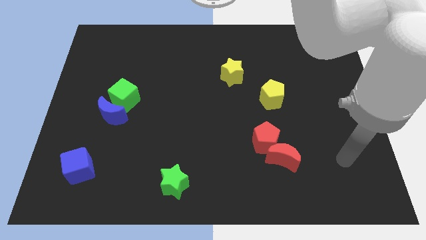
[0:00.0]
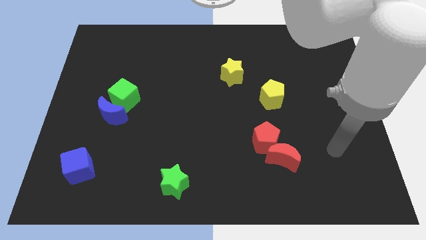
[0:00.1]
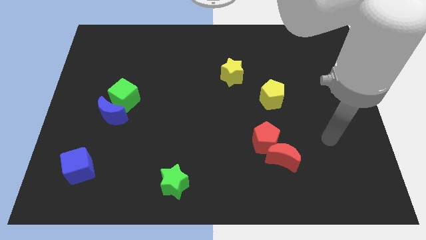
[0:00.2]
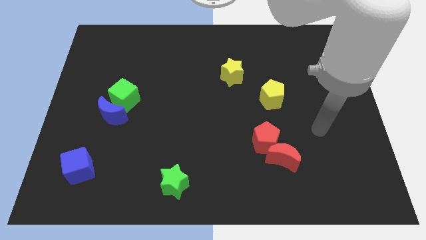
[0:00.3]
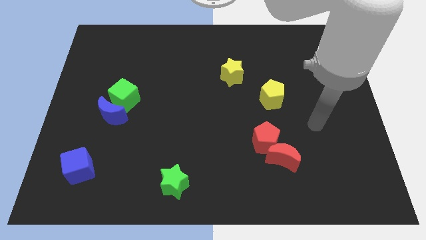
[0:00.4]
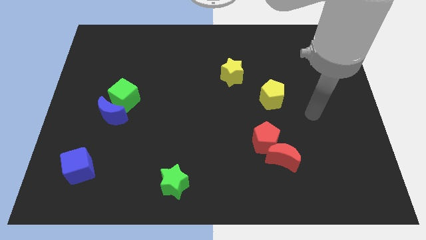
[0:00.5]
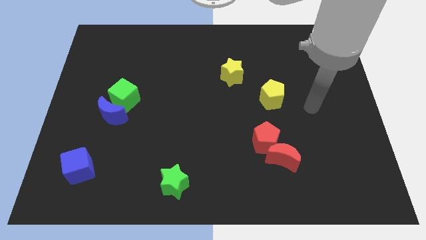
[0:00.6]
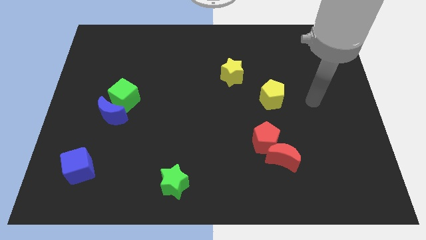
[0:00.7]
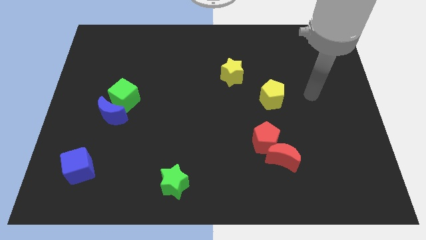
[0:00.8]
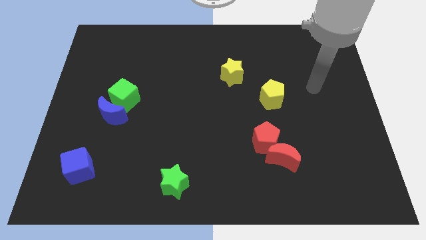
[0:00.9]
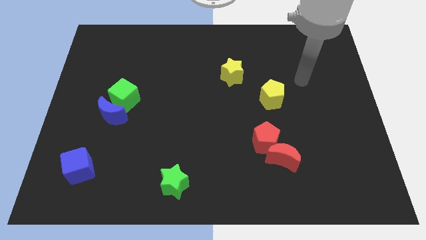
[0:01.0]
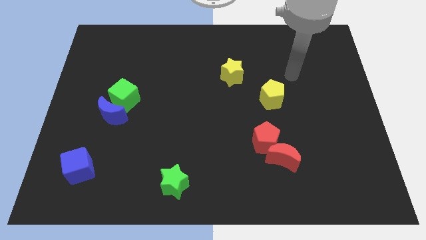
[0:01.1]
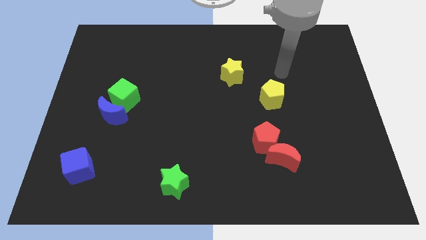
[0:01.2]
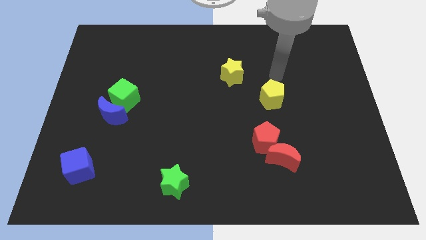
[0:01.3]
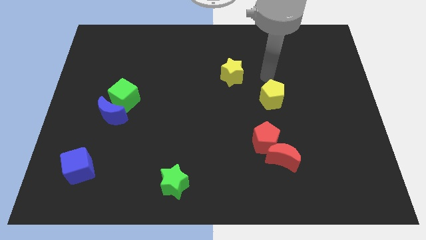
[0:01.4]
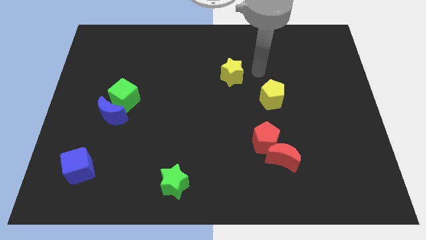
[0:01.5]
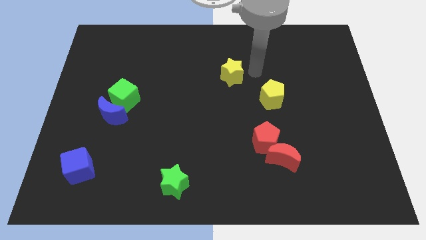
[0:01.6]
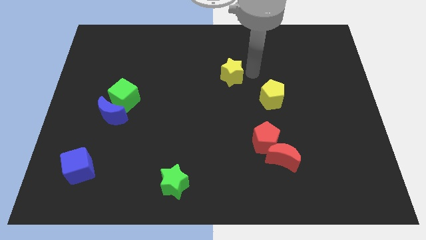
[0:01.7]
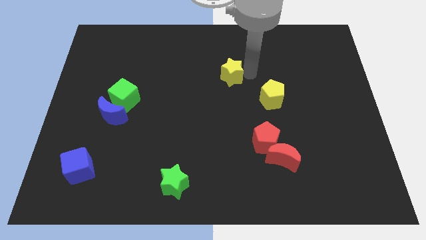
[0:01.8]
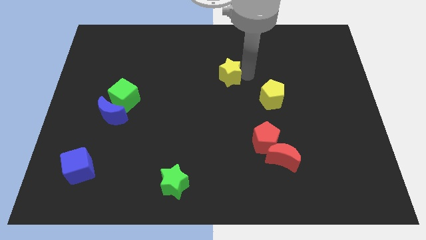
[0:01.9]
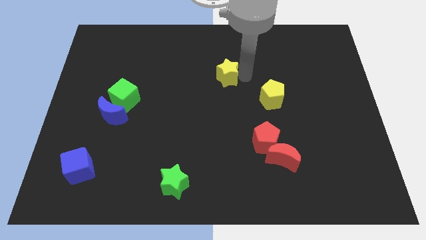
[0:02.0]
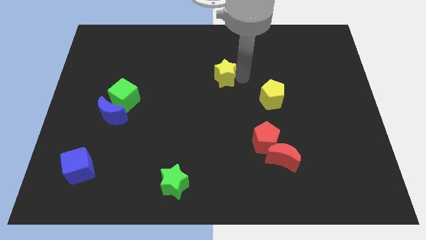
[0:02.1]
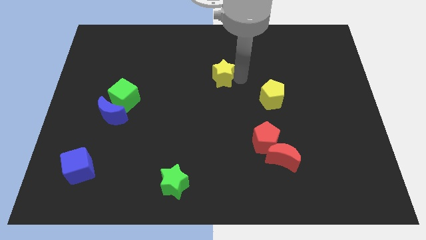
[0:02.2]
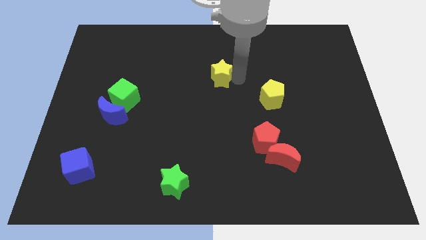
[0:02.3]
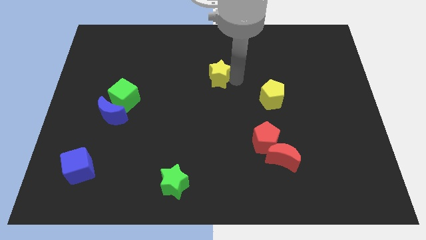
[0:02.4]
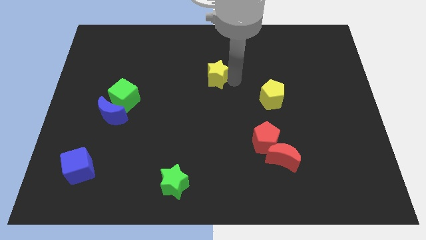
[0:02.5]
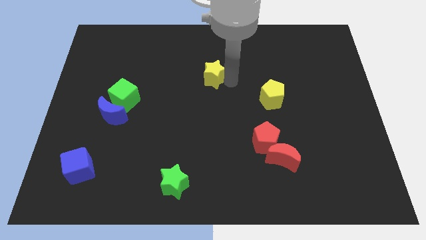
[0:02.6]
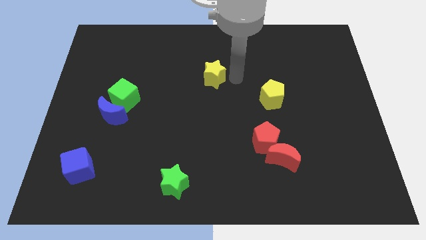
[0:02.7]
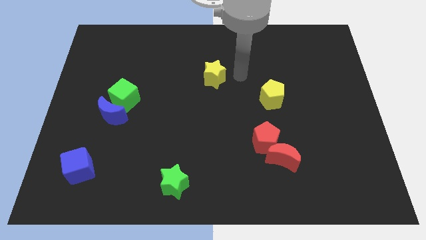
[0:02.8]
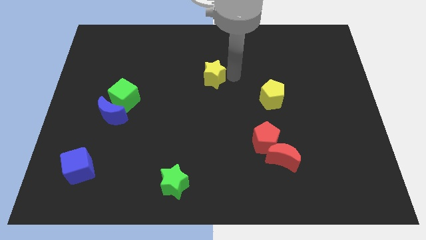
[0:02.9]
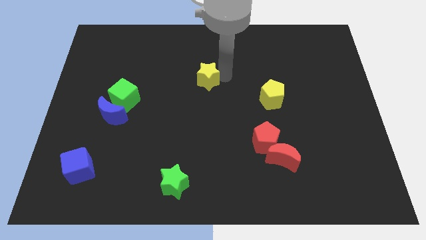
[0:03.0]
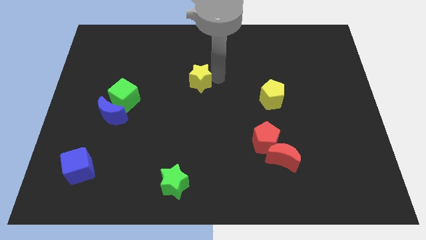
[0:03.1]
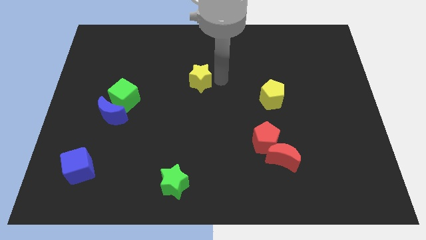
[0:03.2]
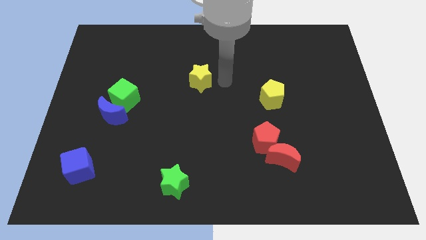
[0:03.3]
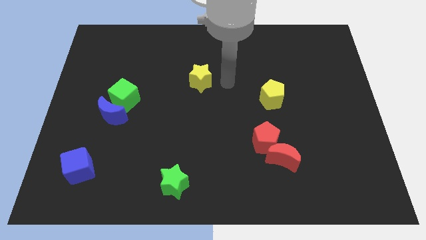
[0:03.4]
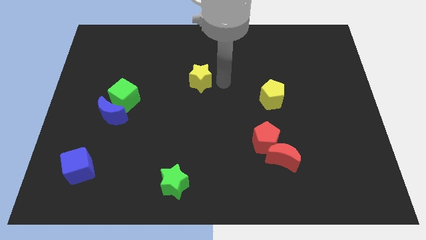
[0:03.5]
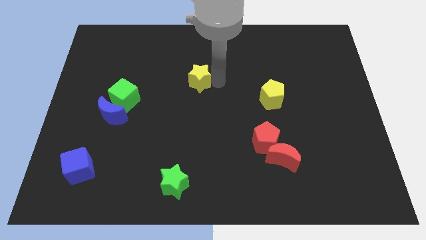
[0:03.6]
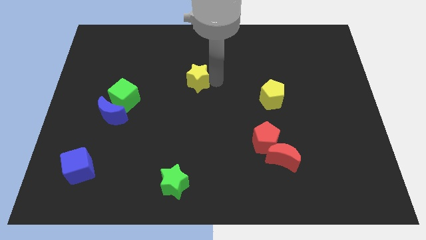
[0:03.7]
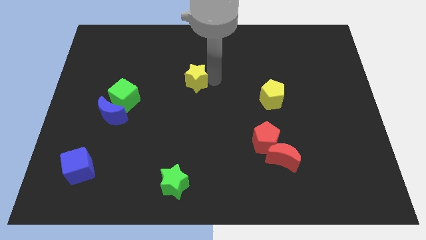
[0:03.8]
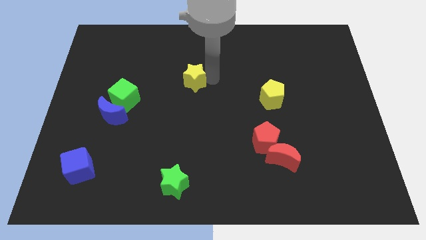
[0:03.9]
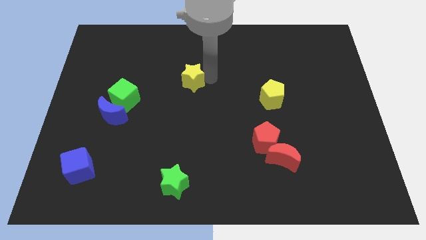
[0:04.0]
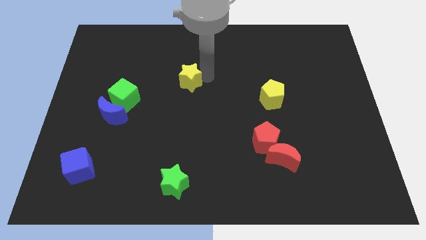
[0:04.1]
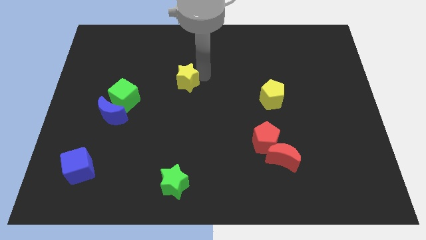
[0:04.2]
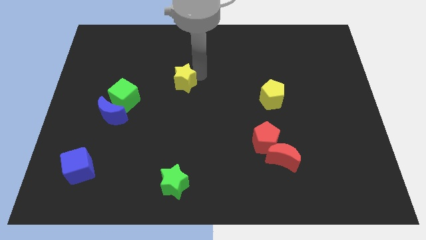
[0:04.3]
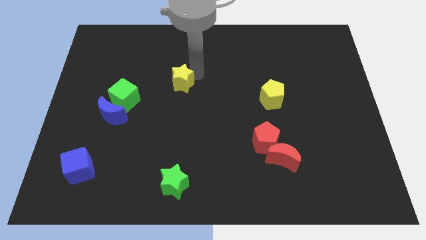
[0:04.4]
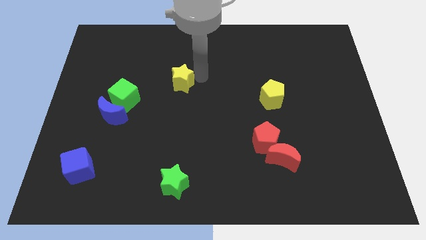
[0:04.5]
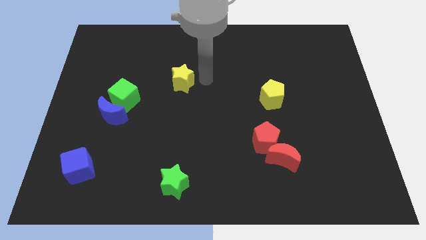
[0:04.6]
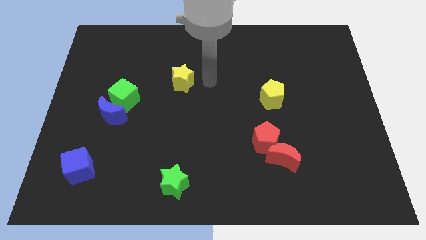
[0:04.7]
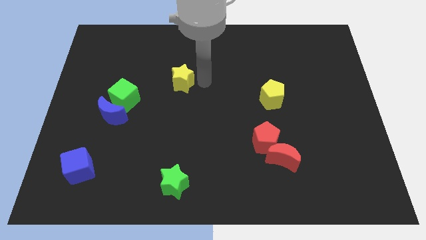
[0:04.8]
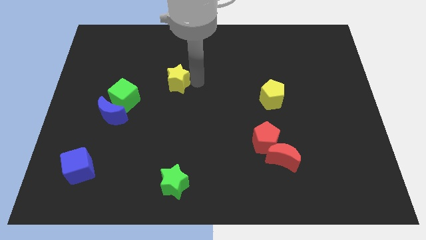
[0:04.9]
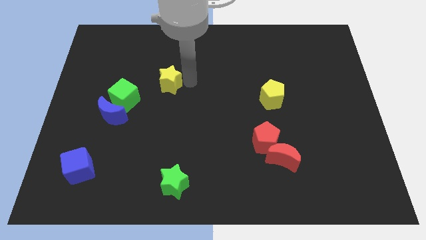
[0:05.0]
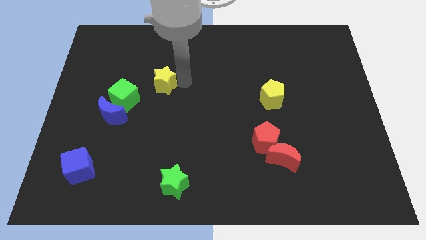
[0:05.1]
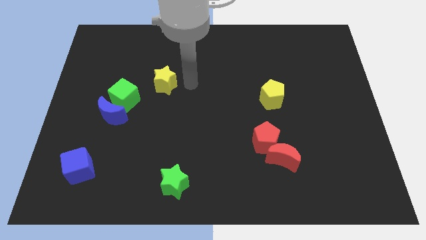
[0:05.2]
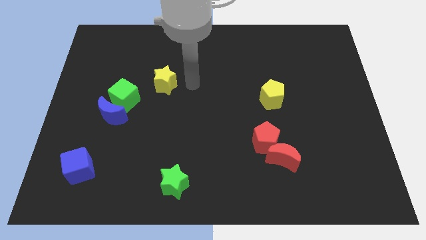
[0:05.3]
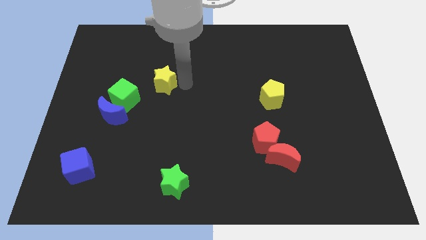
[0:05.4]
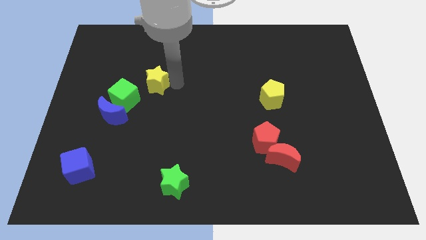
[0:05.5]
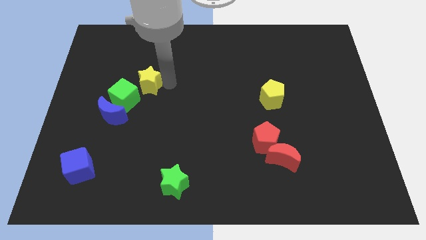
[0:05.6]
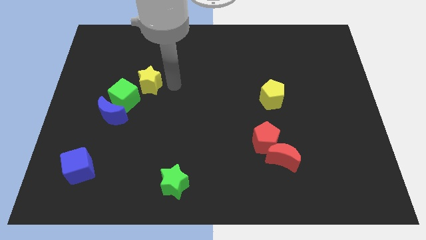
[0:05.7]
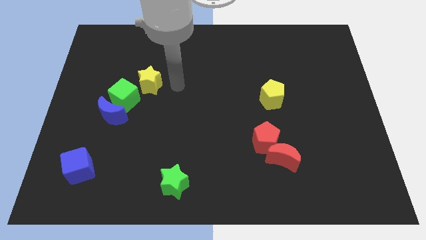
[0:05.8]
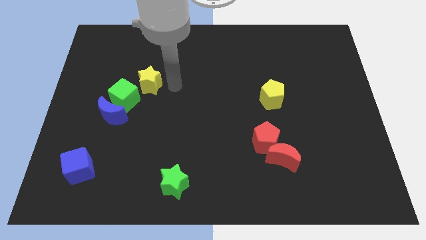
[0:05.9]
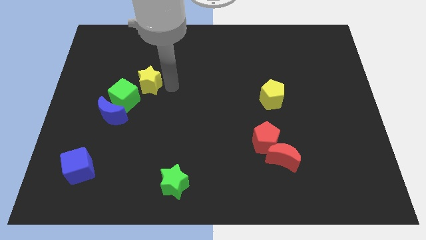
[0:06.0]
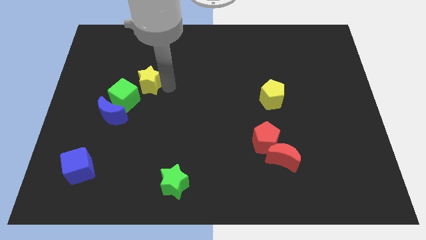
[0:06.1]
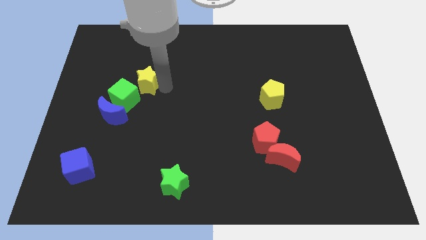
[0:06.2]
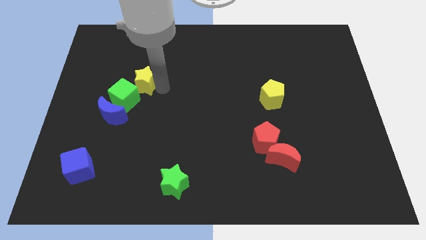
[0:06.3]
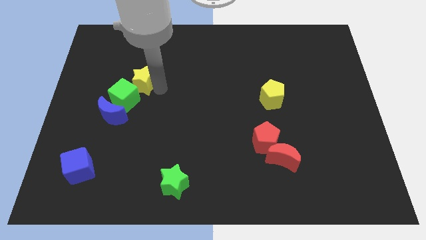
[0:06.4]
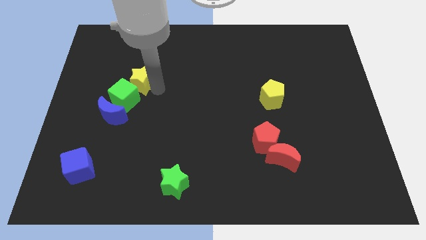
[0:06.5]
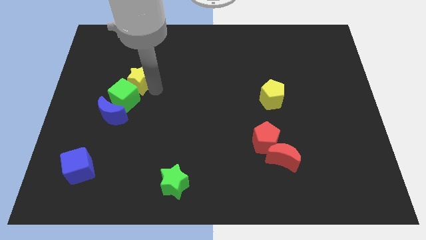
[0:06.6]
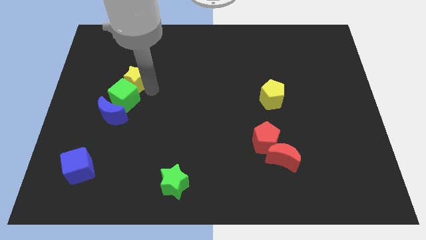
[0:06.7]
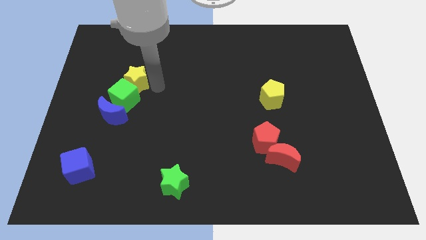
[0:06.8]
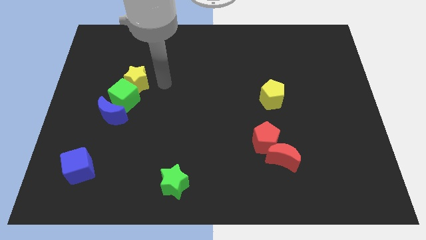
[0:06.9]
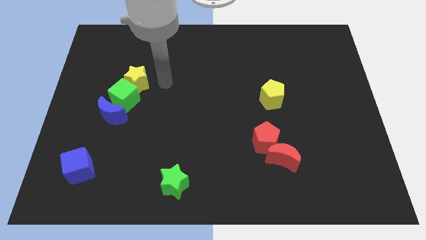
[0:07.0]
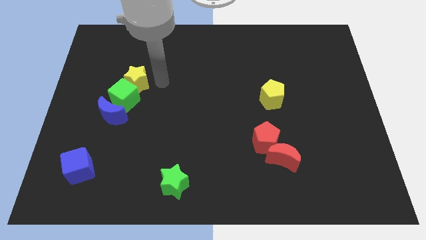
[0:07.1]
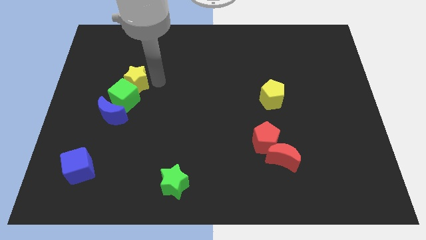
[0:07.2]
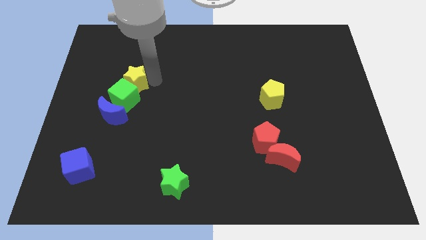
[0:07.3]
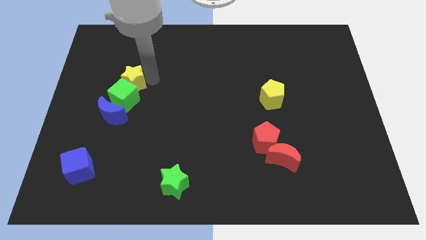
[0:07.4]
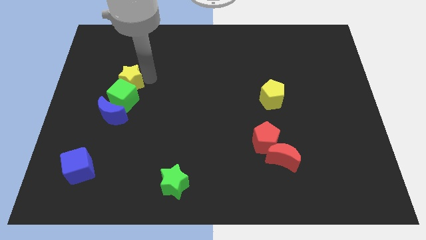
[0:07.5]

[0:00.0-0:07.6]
put the yellow star to the top left of the green cube

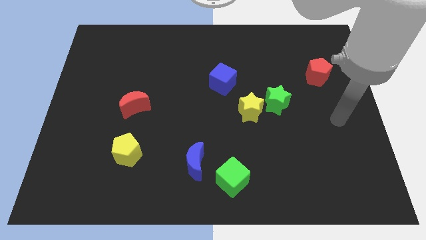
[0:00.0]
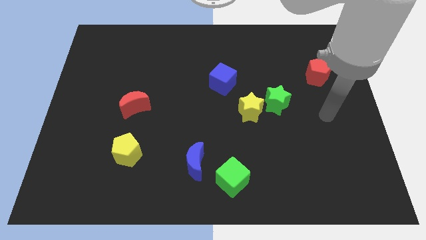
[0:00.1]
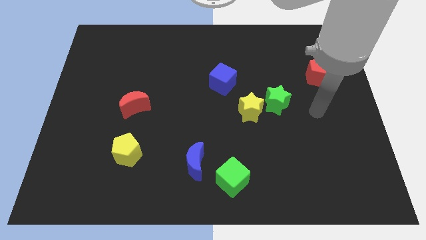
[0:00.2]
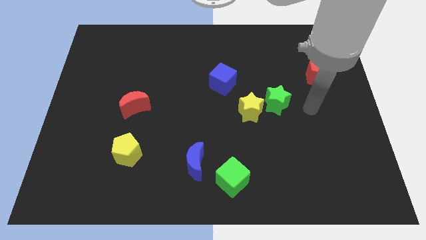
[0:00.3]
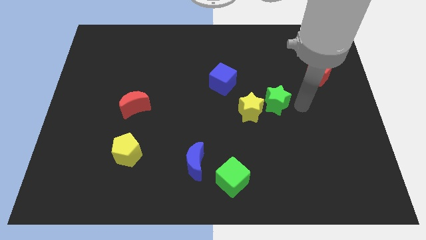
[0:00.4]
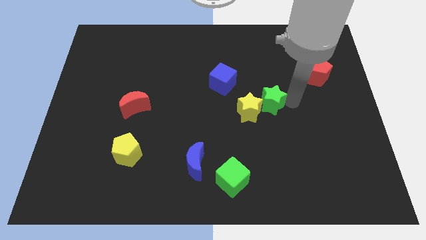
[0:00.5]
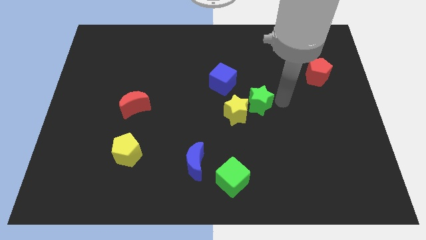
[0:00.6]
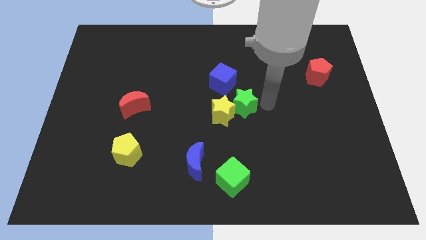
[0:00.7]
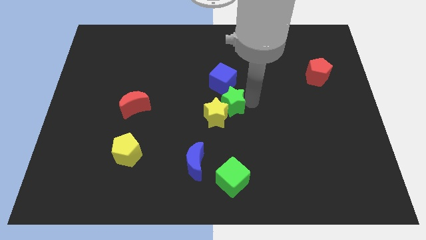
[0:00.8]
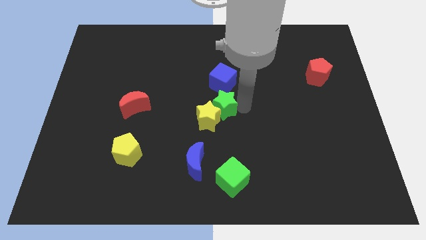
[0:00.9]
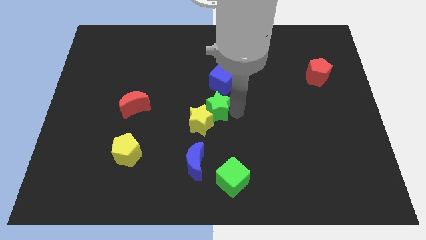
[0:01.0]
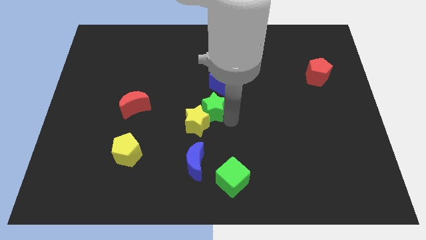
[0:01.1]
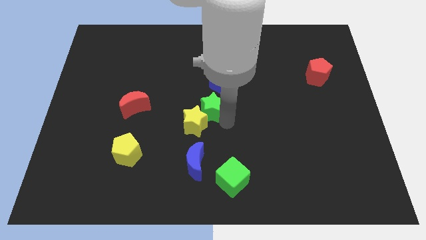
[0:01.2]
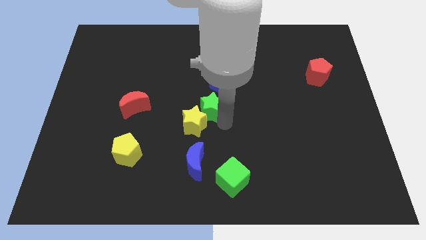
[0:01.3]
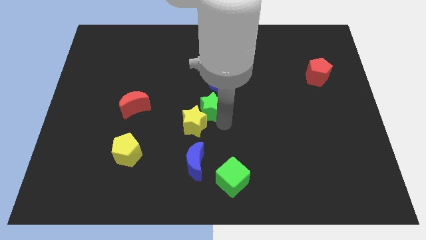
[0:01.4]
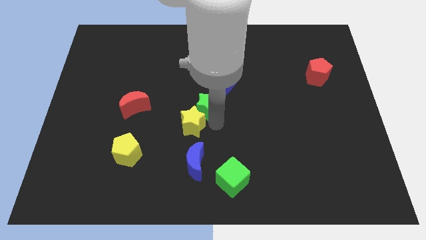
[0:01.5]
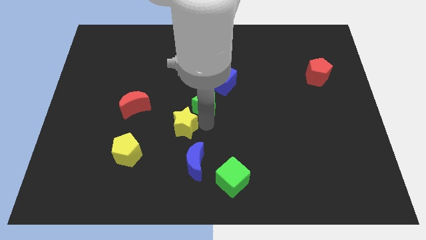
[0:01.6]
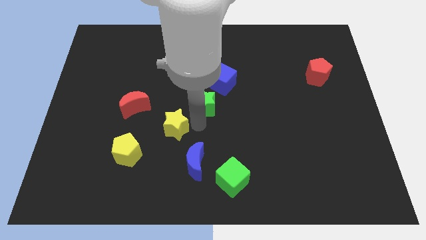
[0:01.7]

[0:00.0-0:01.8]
slide the yellow star to the bottom right side of the red moon
